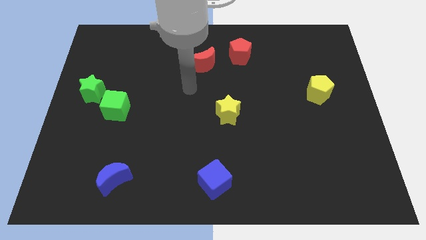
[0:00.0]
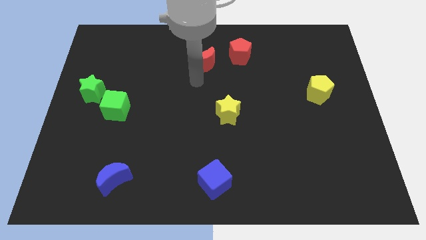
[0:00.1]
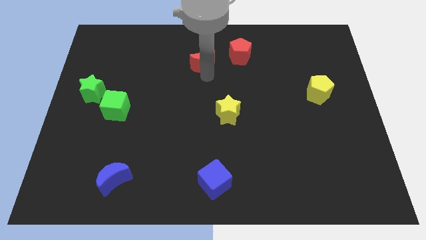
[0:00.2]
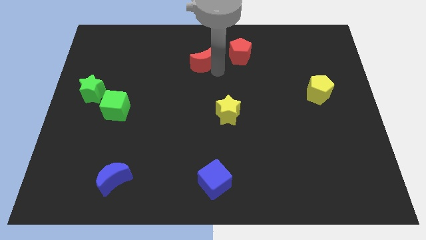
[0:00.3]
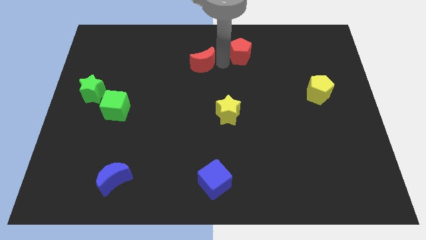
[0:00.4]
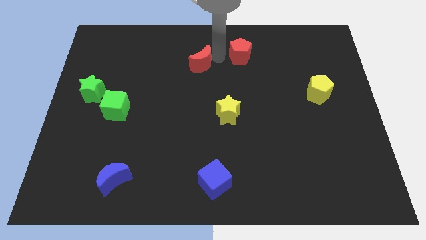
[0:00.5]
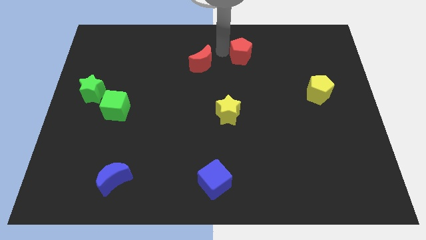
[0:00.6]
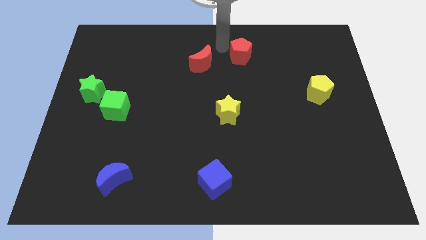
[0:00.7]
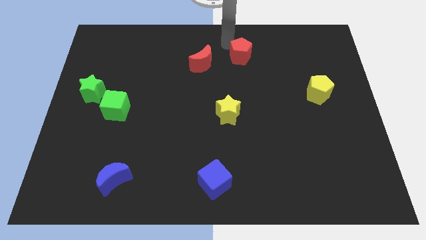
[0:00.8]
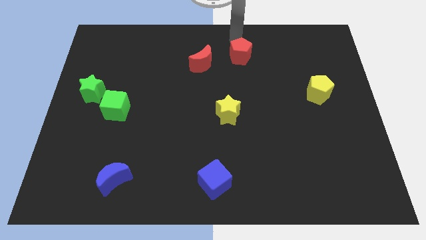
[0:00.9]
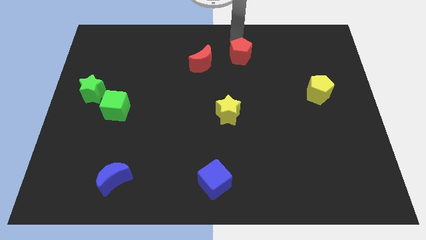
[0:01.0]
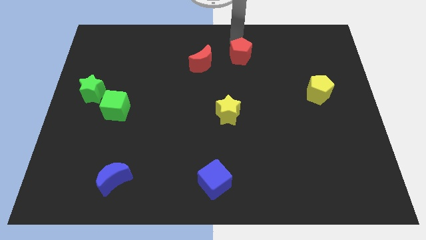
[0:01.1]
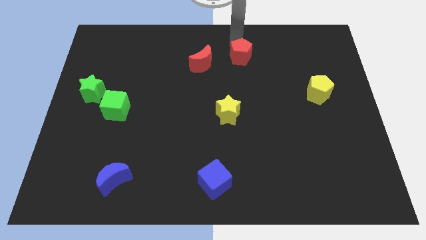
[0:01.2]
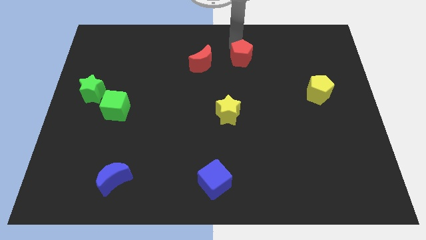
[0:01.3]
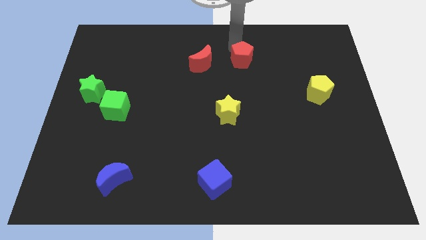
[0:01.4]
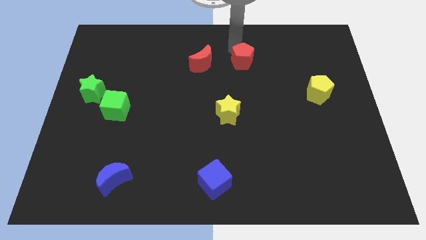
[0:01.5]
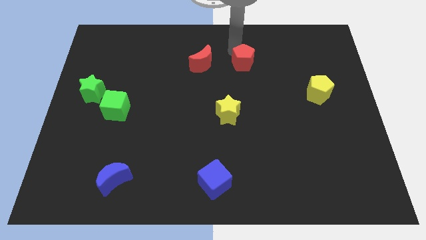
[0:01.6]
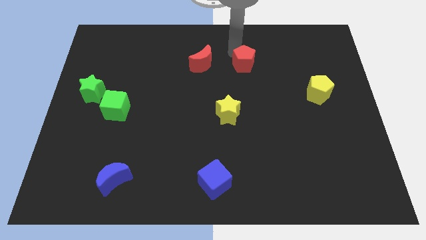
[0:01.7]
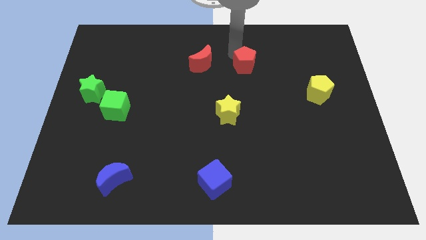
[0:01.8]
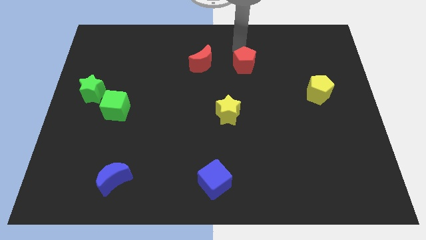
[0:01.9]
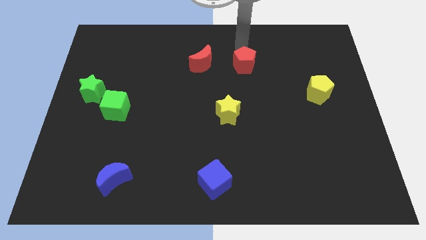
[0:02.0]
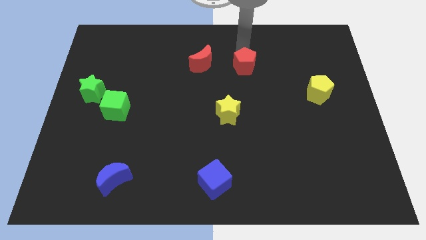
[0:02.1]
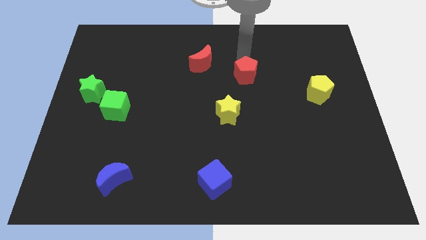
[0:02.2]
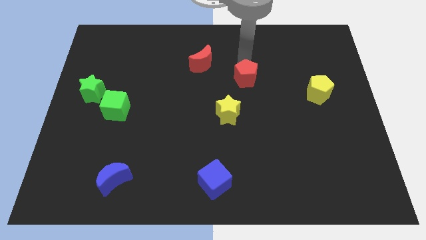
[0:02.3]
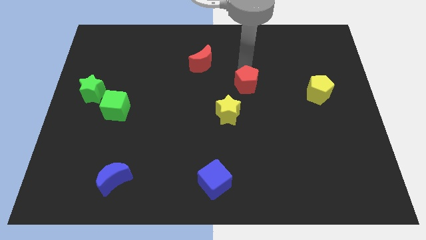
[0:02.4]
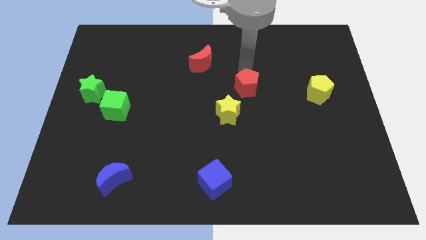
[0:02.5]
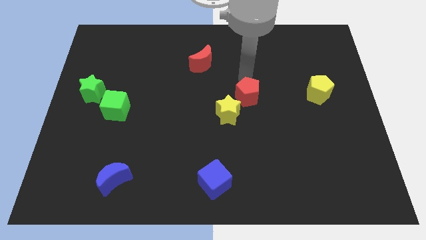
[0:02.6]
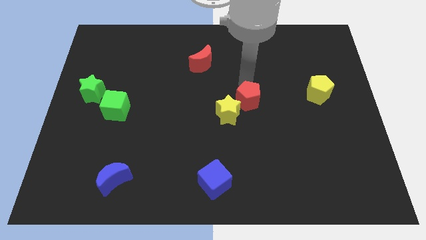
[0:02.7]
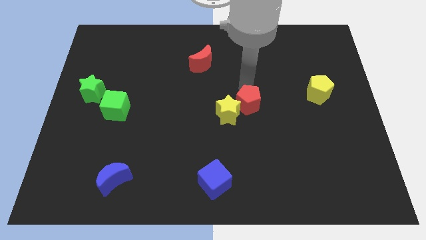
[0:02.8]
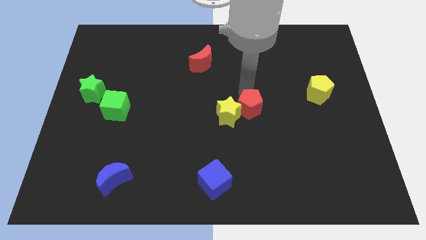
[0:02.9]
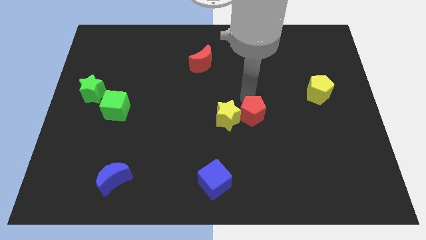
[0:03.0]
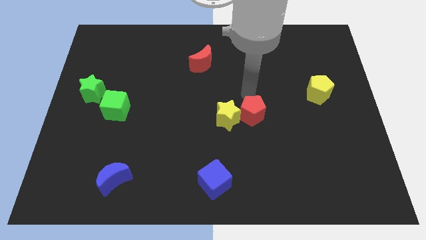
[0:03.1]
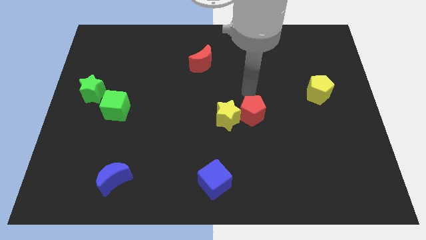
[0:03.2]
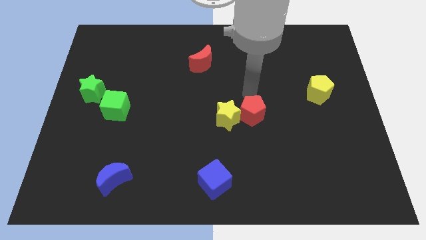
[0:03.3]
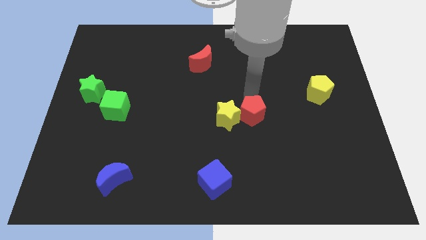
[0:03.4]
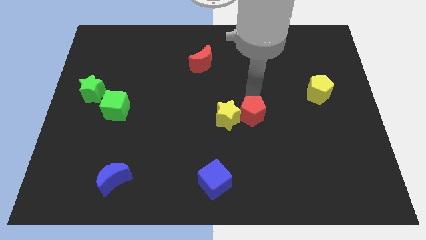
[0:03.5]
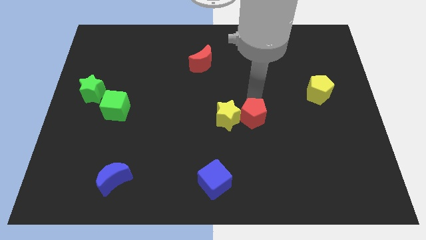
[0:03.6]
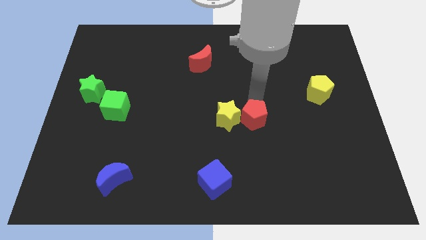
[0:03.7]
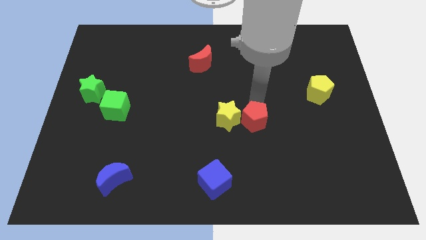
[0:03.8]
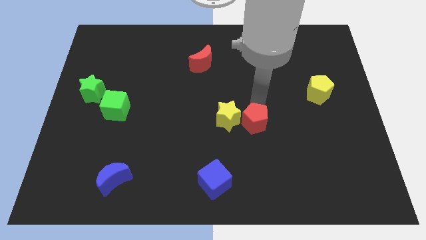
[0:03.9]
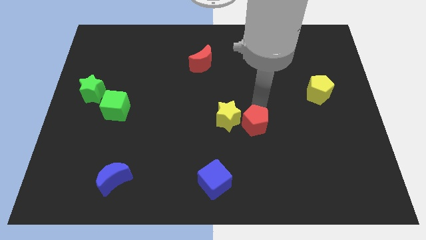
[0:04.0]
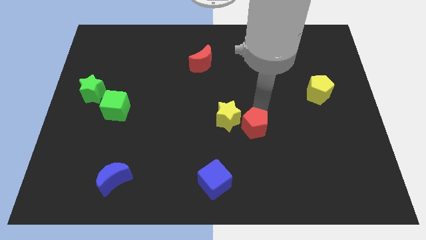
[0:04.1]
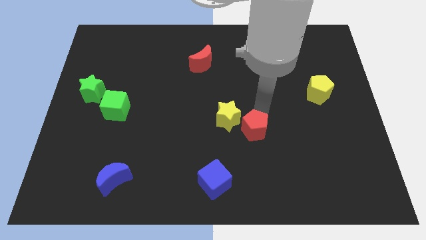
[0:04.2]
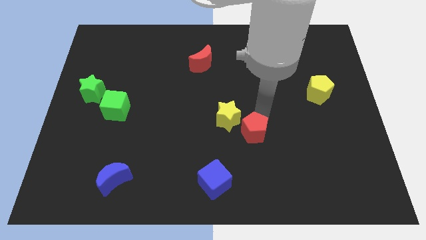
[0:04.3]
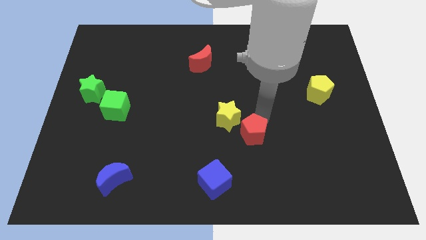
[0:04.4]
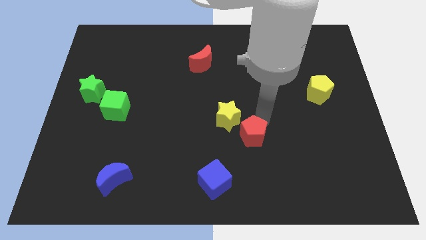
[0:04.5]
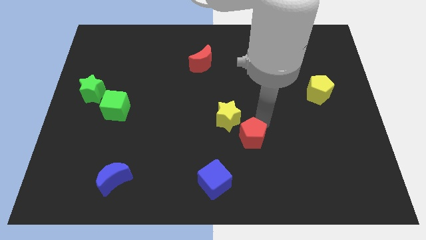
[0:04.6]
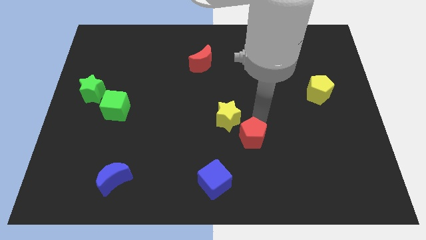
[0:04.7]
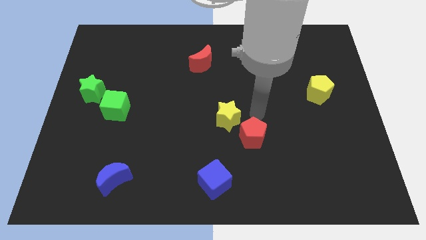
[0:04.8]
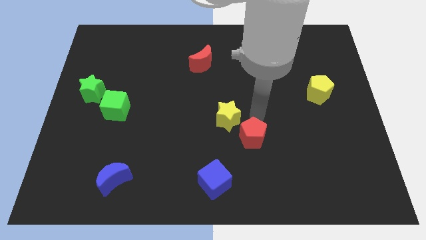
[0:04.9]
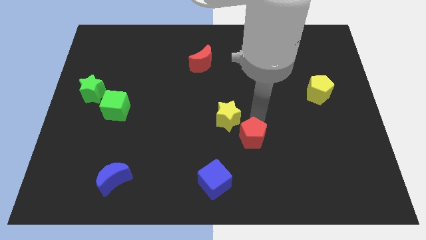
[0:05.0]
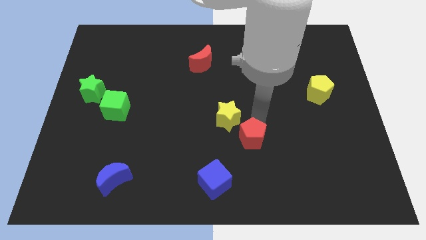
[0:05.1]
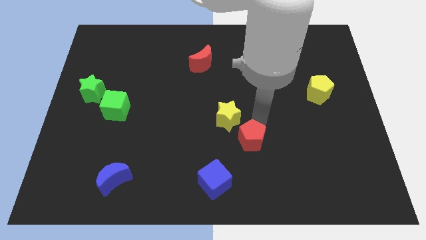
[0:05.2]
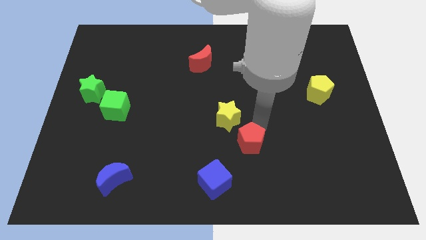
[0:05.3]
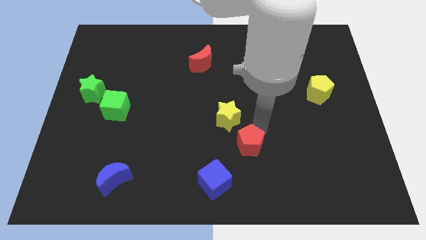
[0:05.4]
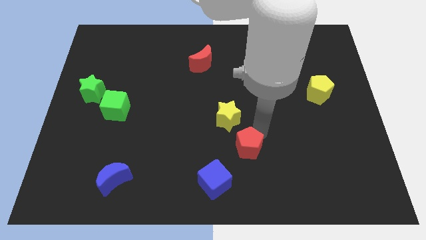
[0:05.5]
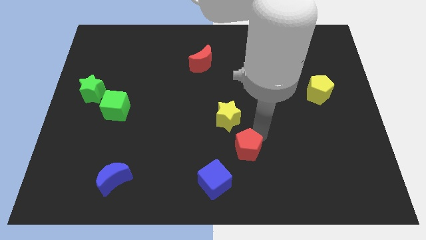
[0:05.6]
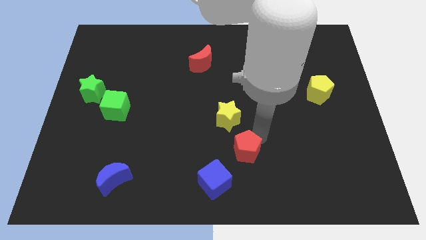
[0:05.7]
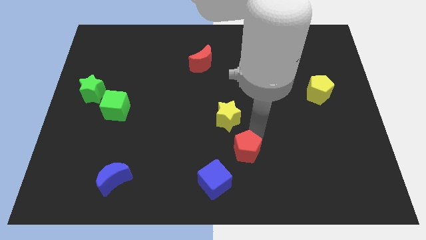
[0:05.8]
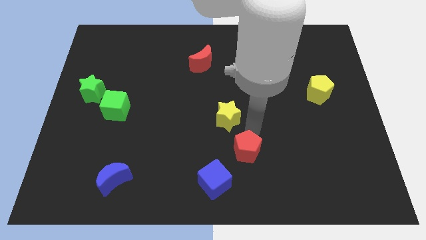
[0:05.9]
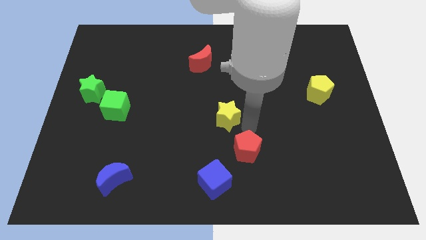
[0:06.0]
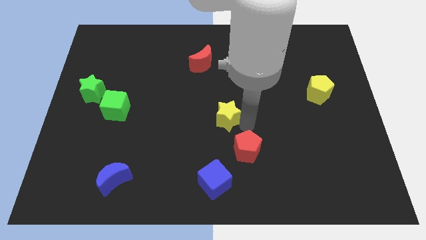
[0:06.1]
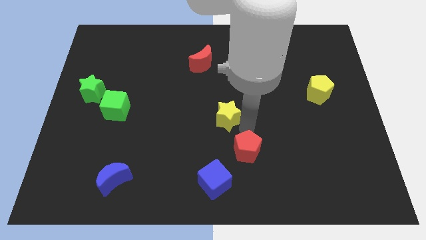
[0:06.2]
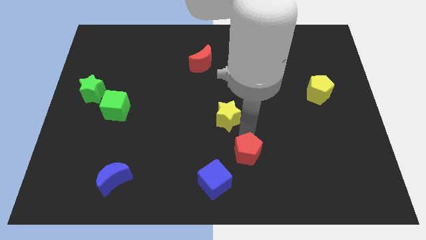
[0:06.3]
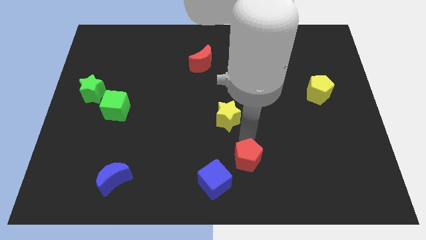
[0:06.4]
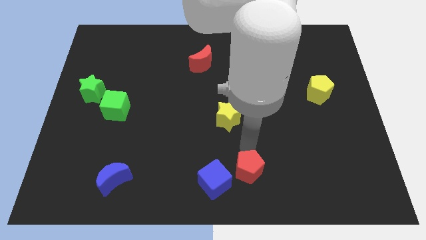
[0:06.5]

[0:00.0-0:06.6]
move the red pentagon to the bottom side

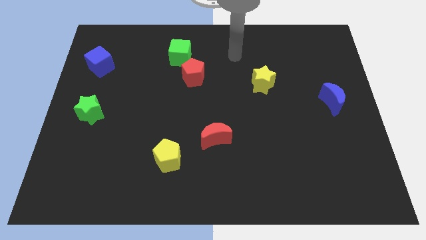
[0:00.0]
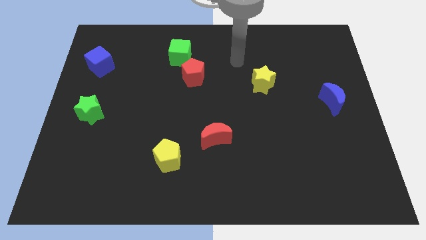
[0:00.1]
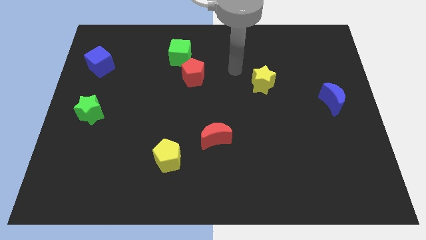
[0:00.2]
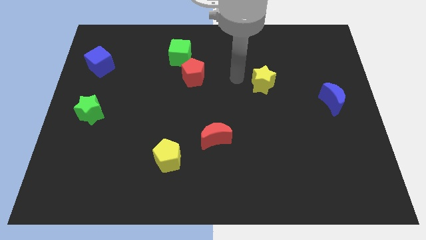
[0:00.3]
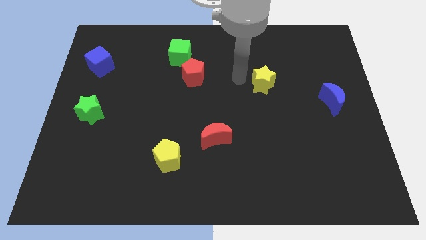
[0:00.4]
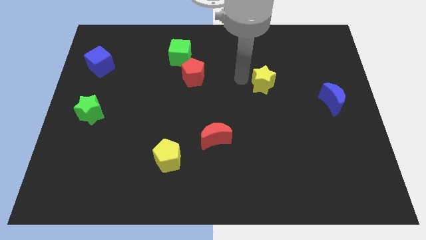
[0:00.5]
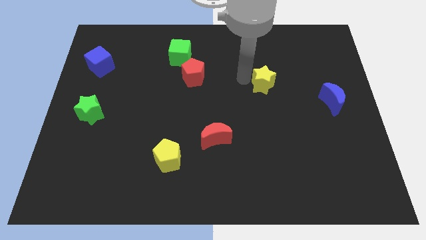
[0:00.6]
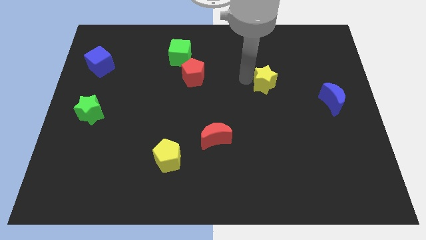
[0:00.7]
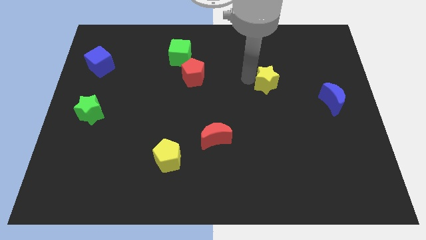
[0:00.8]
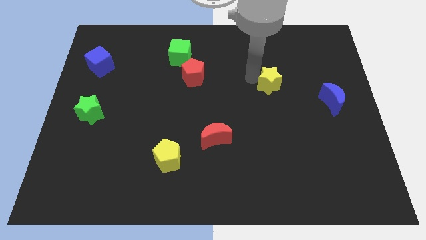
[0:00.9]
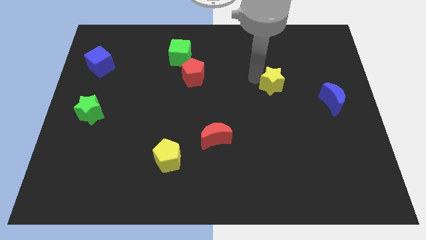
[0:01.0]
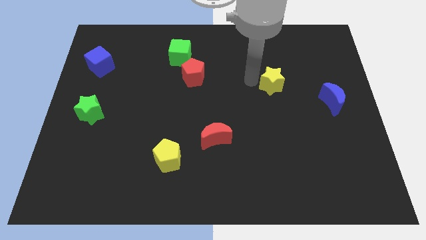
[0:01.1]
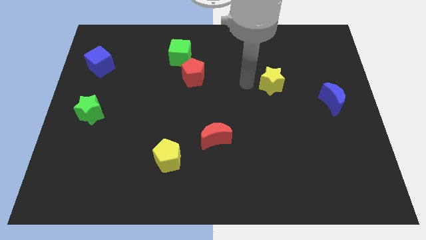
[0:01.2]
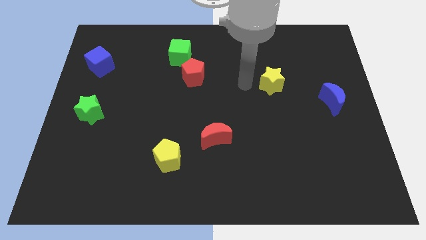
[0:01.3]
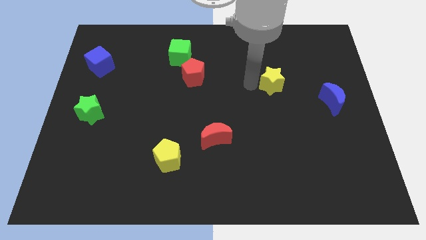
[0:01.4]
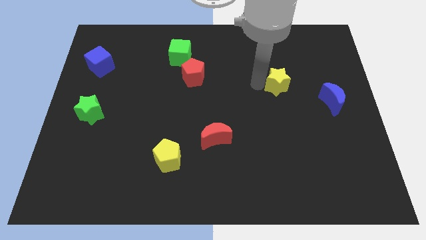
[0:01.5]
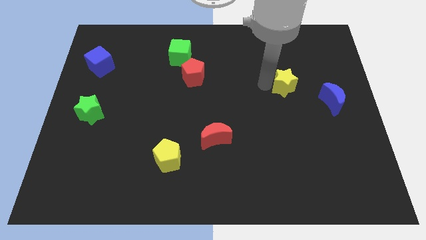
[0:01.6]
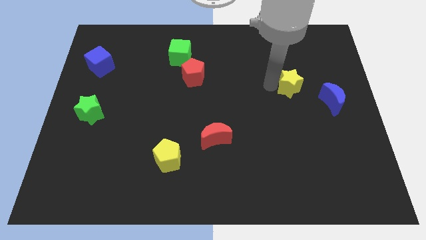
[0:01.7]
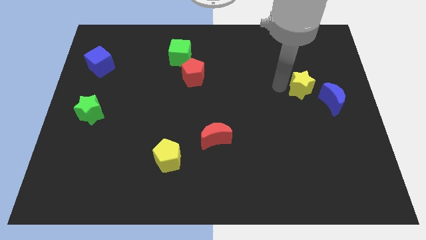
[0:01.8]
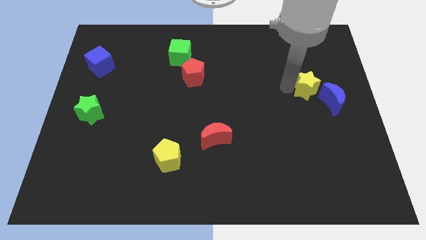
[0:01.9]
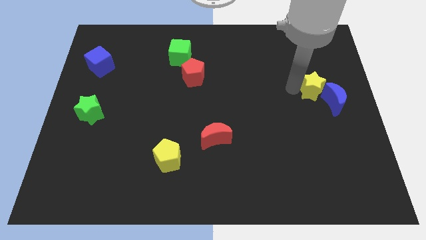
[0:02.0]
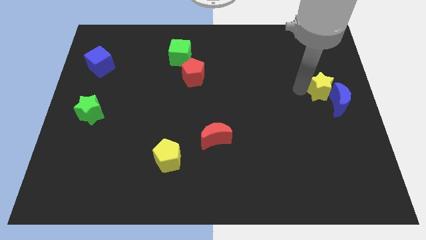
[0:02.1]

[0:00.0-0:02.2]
push the yellow star to the right side
